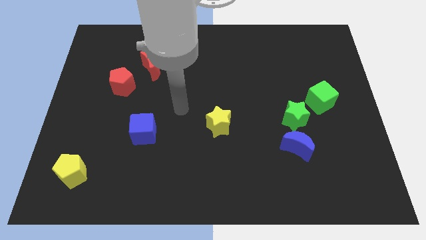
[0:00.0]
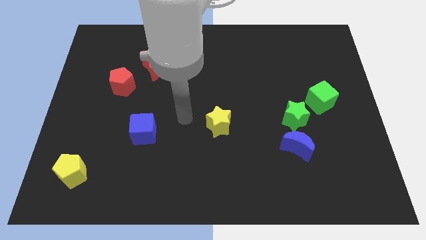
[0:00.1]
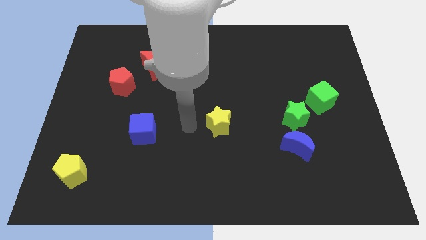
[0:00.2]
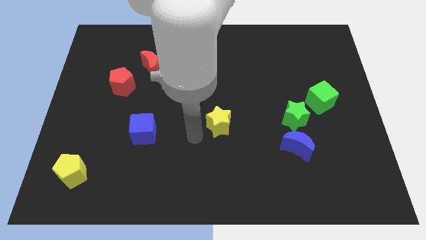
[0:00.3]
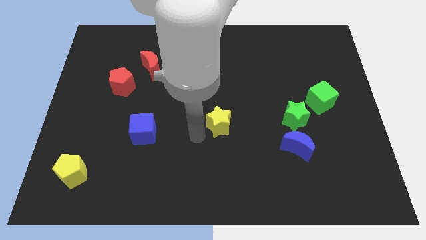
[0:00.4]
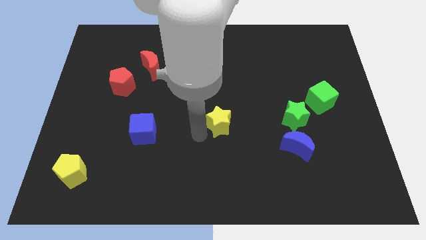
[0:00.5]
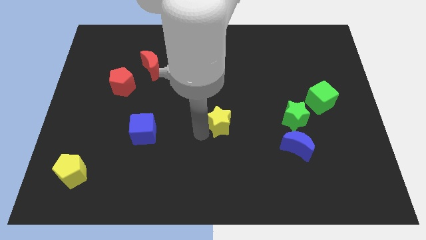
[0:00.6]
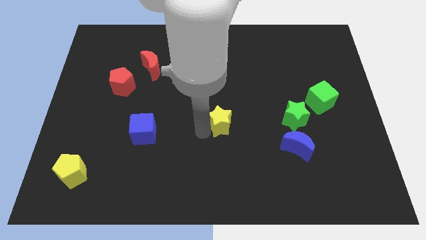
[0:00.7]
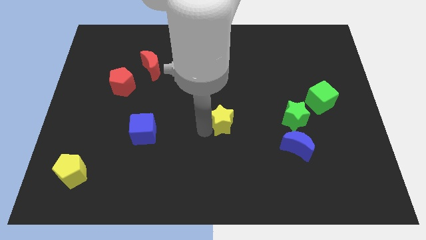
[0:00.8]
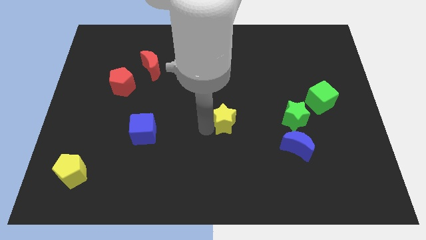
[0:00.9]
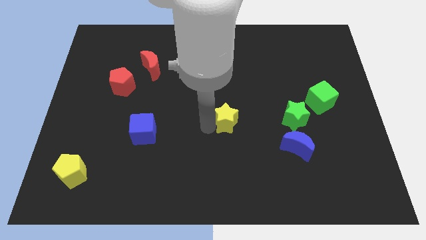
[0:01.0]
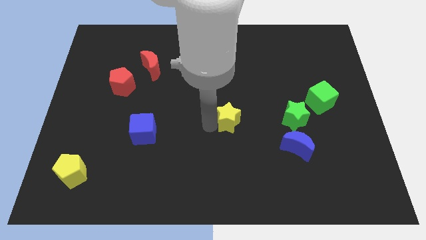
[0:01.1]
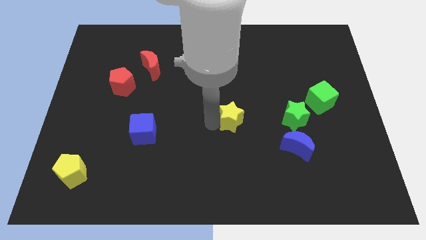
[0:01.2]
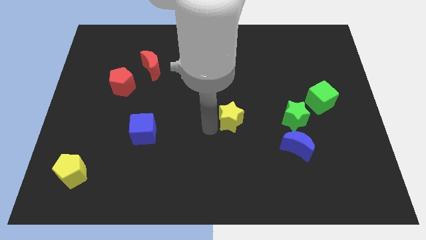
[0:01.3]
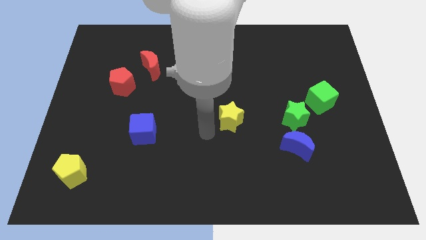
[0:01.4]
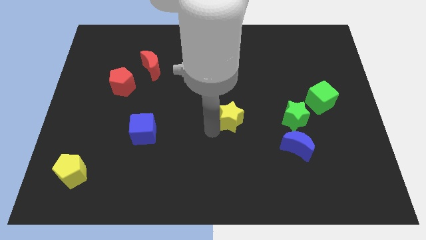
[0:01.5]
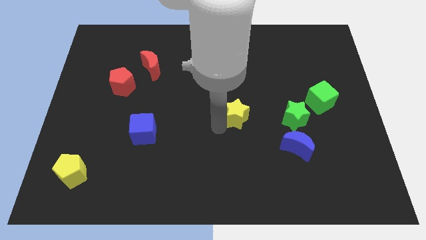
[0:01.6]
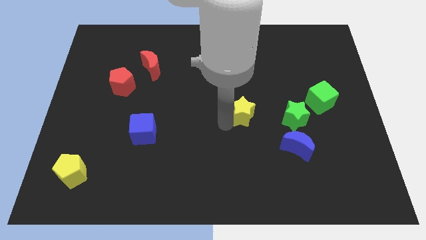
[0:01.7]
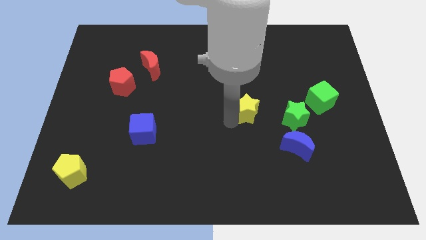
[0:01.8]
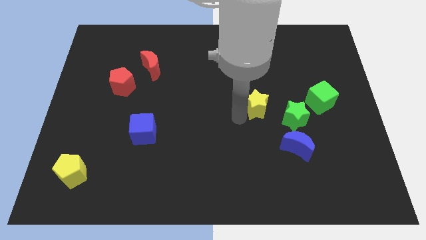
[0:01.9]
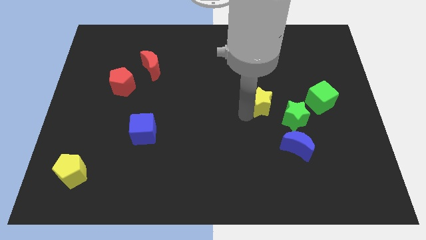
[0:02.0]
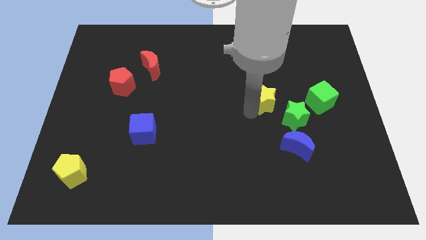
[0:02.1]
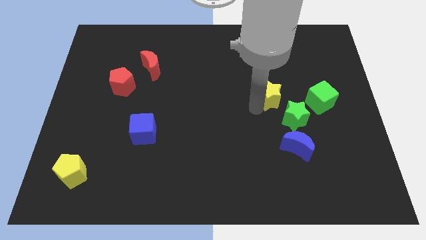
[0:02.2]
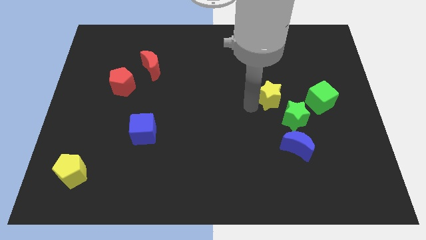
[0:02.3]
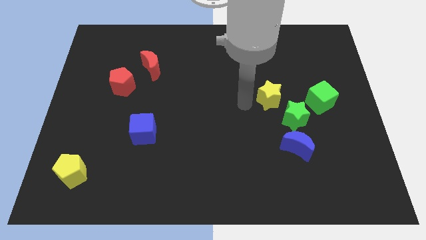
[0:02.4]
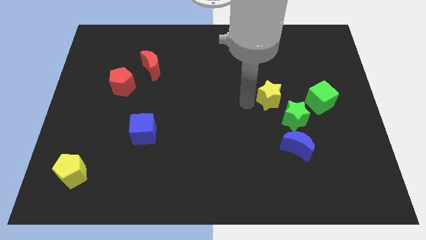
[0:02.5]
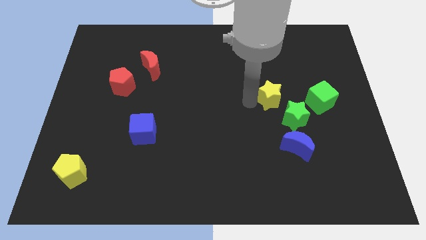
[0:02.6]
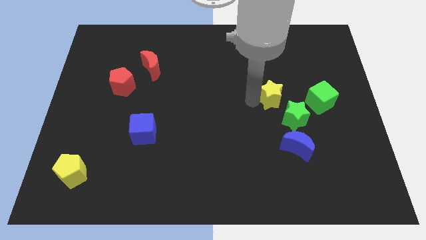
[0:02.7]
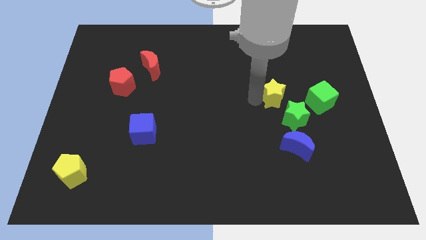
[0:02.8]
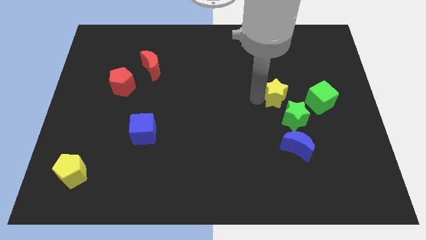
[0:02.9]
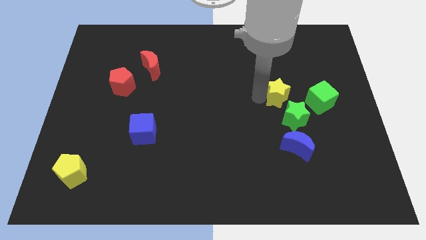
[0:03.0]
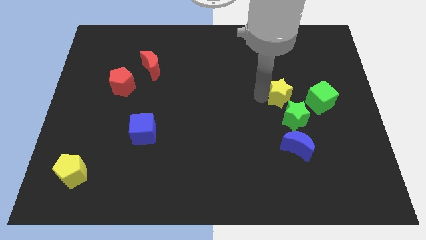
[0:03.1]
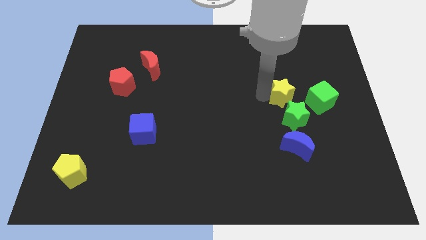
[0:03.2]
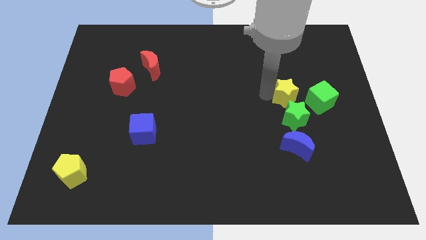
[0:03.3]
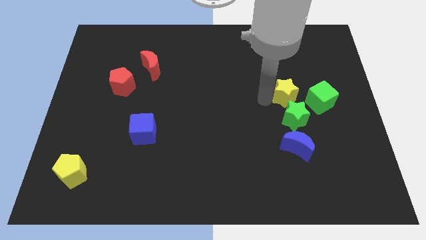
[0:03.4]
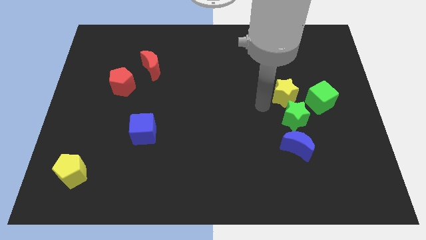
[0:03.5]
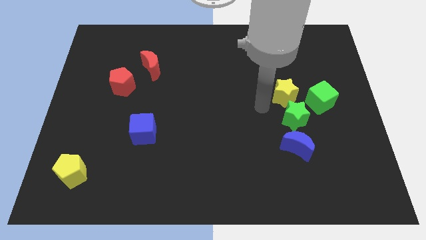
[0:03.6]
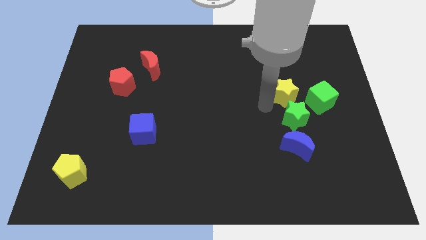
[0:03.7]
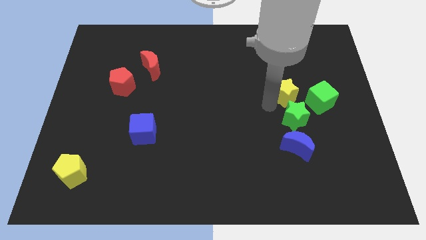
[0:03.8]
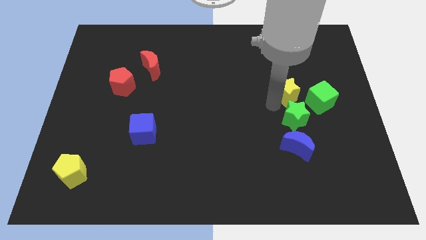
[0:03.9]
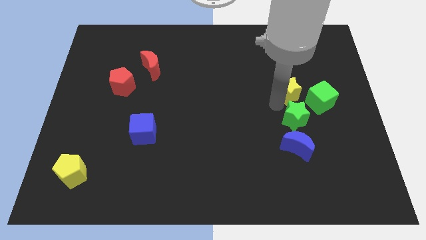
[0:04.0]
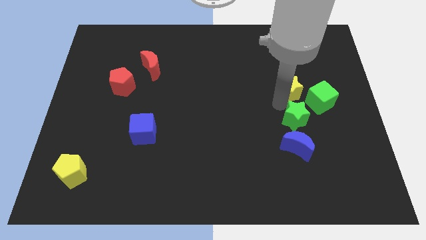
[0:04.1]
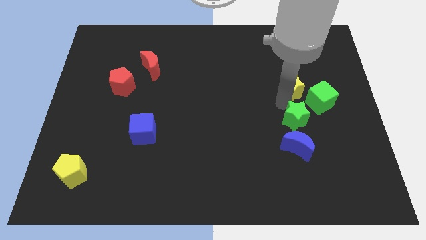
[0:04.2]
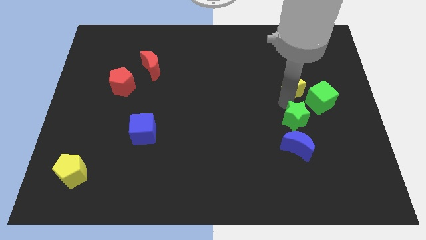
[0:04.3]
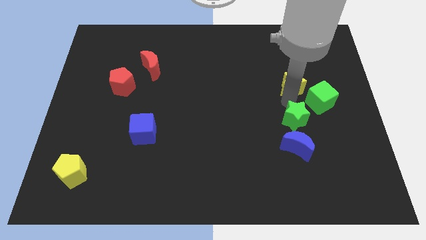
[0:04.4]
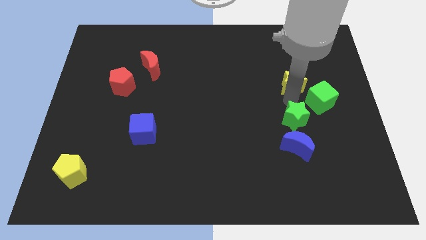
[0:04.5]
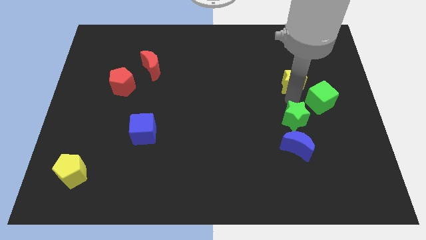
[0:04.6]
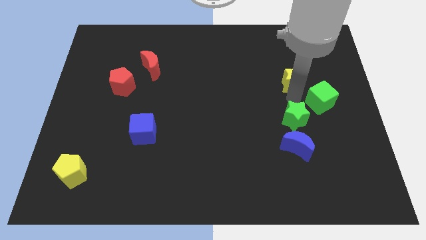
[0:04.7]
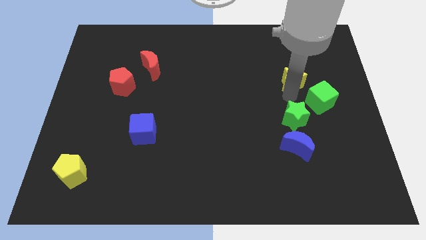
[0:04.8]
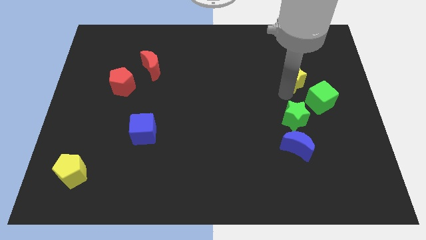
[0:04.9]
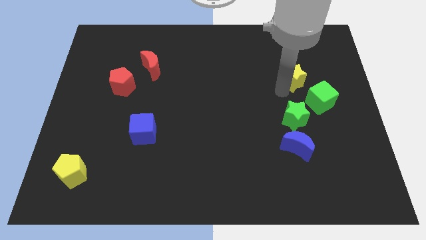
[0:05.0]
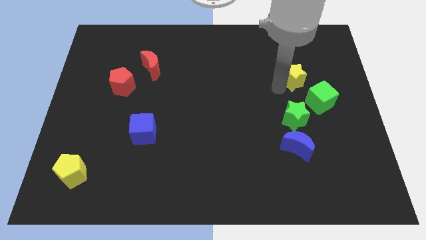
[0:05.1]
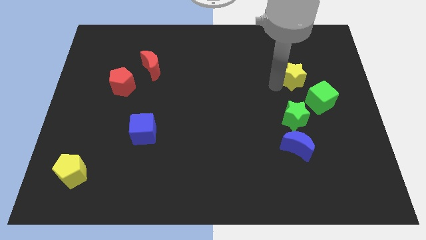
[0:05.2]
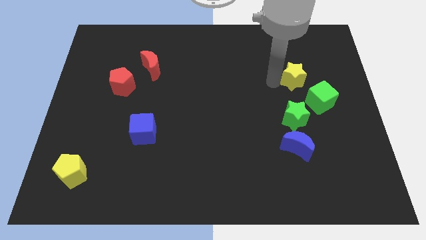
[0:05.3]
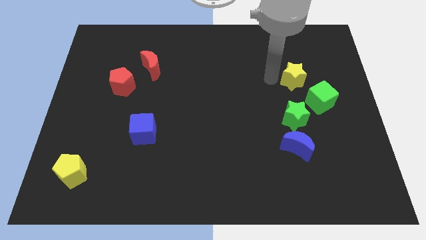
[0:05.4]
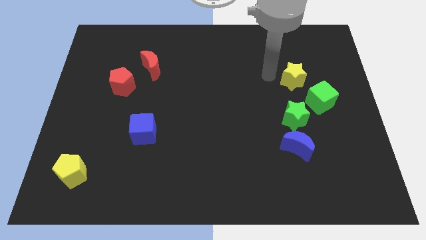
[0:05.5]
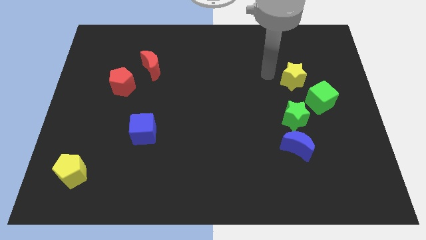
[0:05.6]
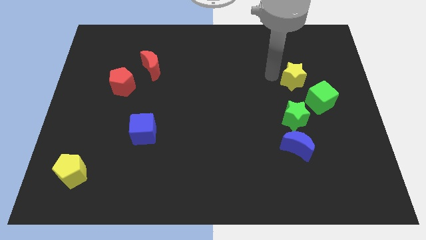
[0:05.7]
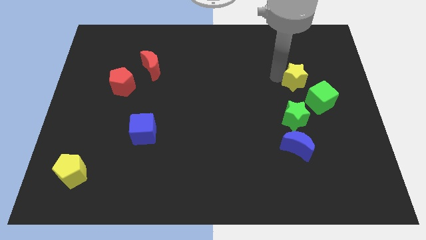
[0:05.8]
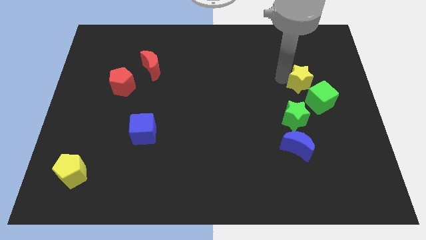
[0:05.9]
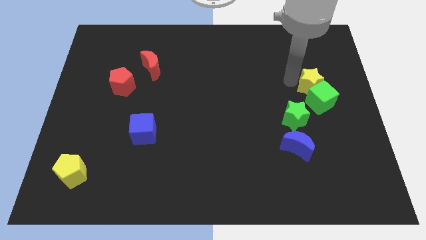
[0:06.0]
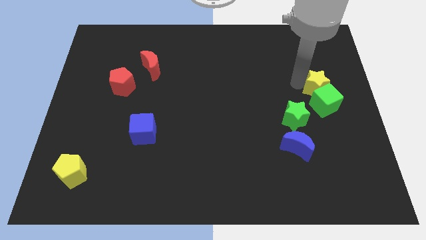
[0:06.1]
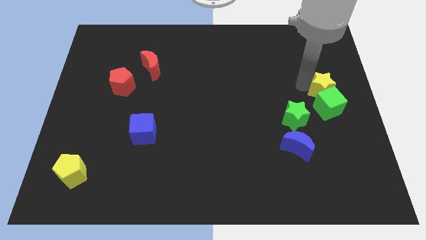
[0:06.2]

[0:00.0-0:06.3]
push the yellow star to the right side of the board
